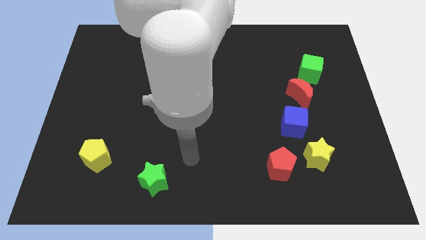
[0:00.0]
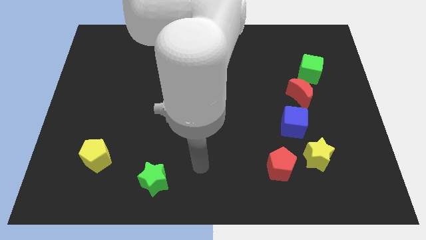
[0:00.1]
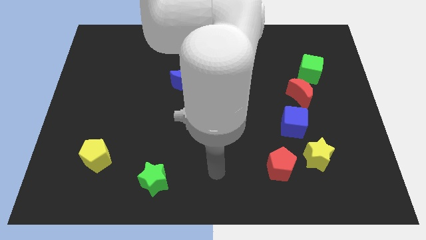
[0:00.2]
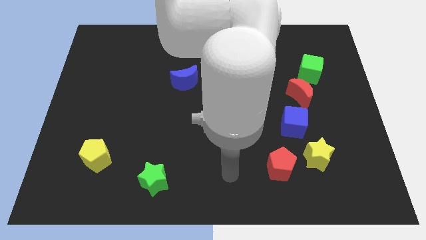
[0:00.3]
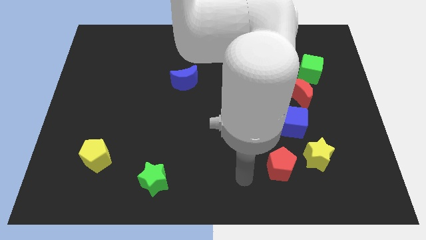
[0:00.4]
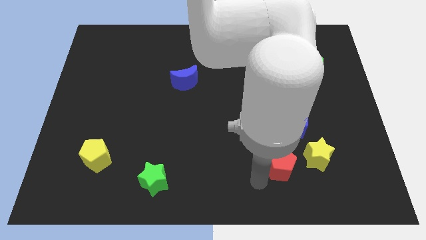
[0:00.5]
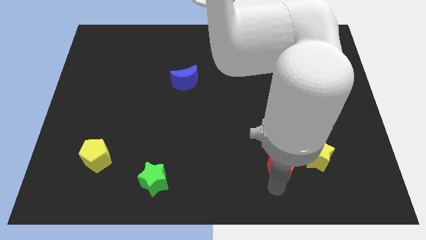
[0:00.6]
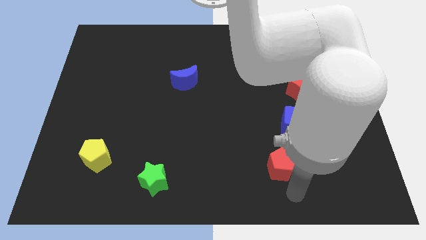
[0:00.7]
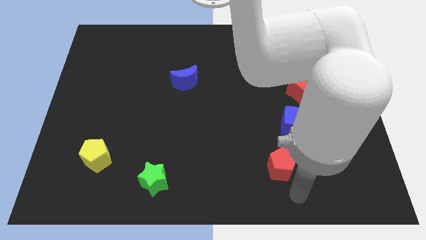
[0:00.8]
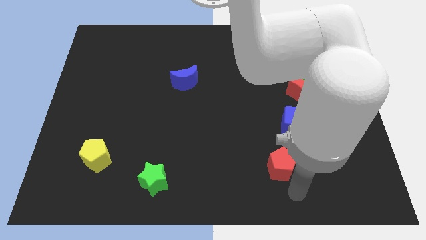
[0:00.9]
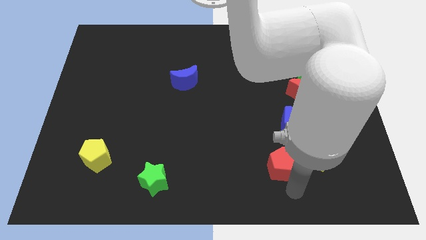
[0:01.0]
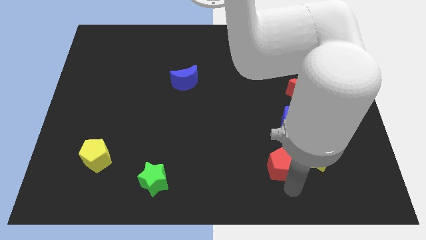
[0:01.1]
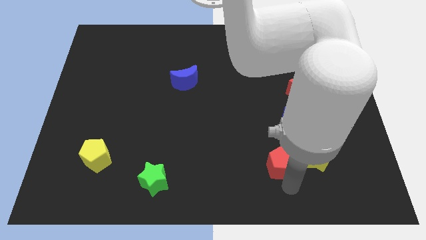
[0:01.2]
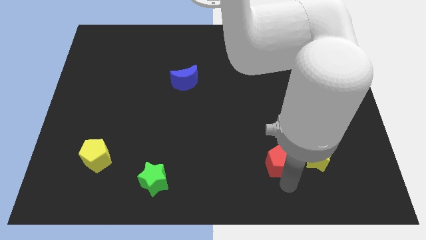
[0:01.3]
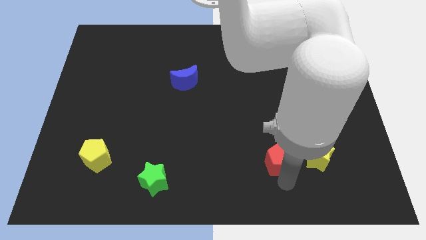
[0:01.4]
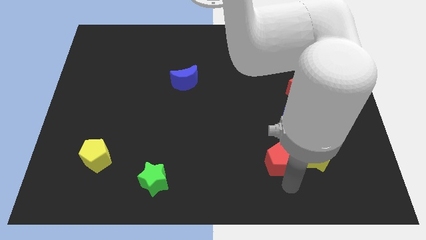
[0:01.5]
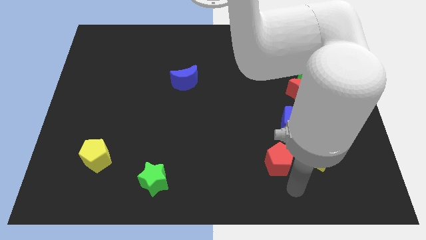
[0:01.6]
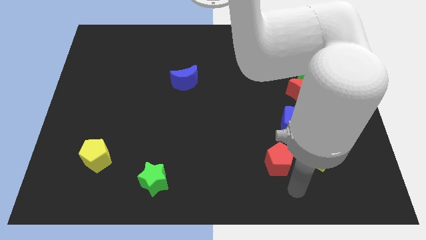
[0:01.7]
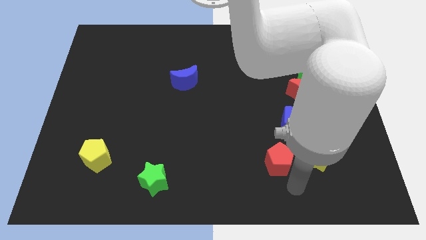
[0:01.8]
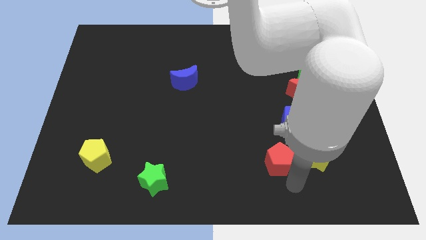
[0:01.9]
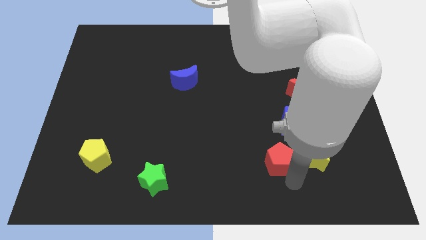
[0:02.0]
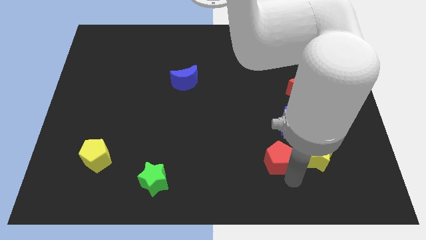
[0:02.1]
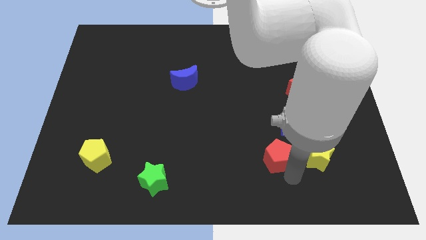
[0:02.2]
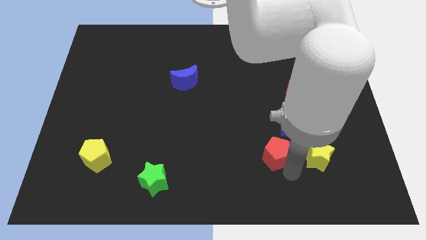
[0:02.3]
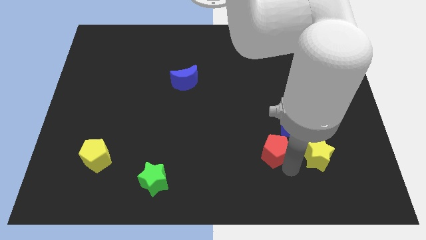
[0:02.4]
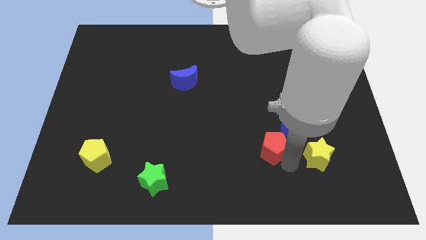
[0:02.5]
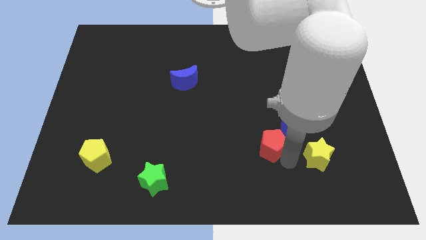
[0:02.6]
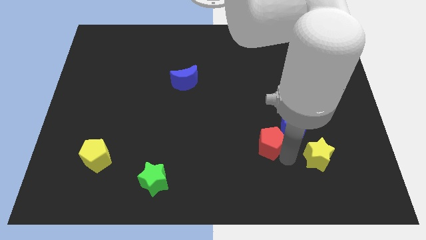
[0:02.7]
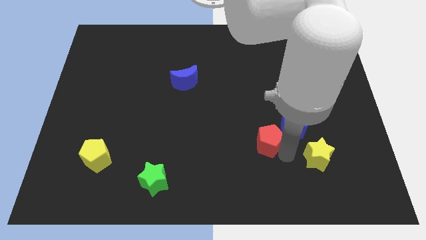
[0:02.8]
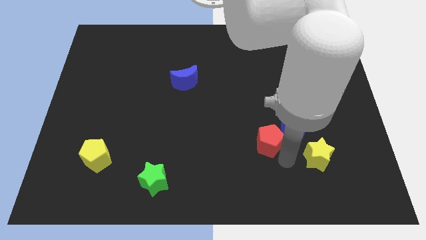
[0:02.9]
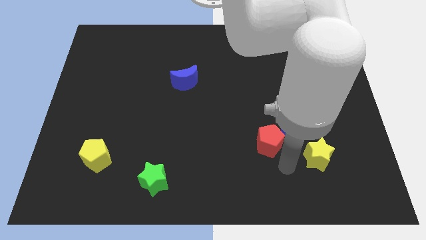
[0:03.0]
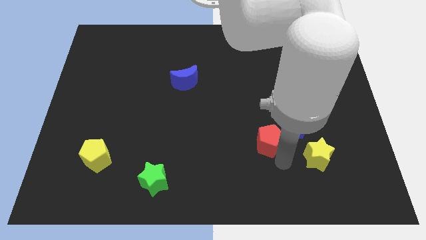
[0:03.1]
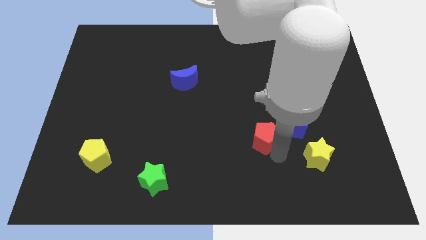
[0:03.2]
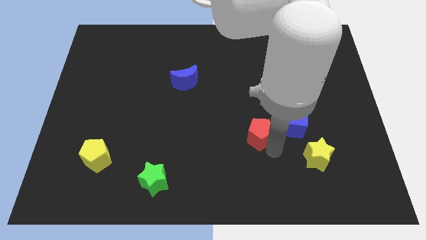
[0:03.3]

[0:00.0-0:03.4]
slightly slide the red pentagon up

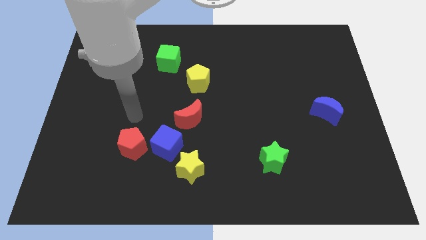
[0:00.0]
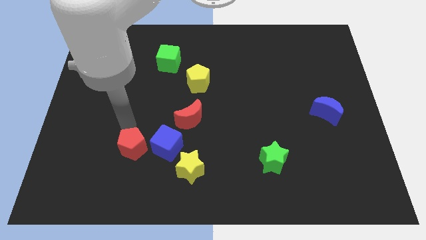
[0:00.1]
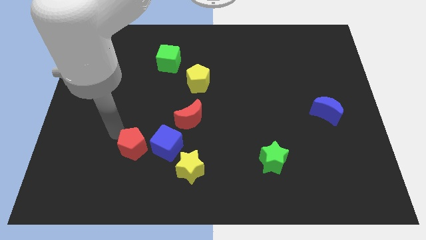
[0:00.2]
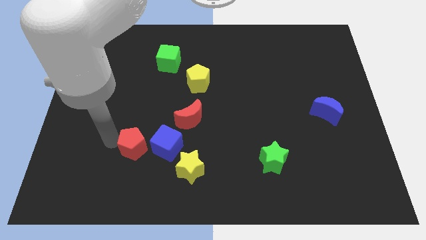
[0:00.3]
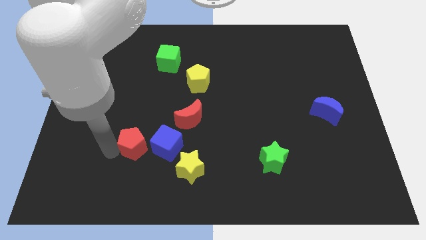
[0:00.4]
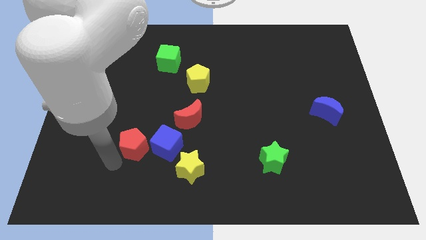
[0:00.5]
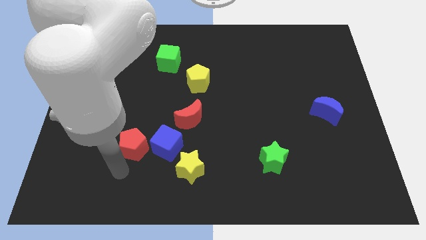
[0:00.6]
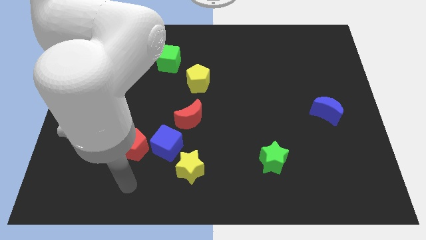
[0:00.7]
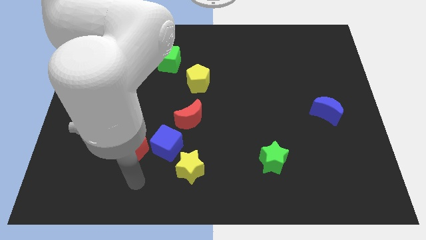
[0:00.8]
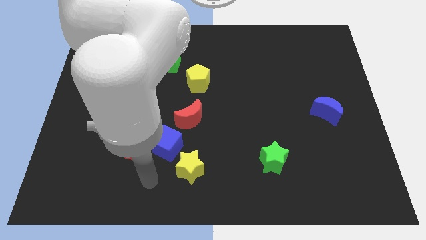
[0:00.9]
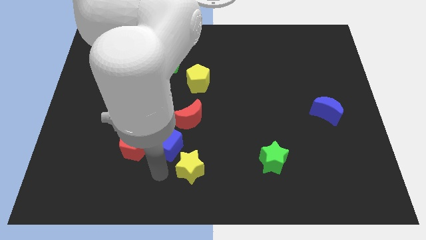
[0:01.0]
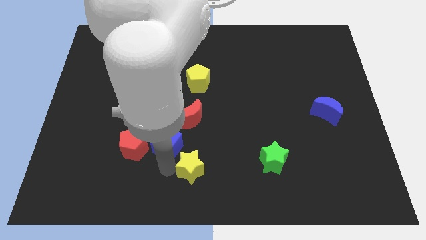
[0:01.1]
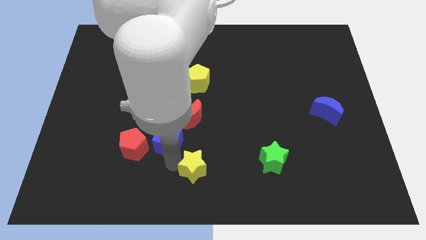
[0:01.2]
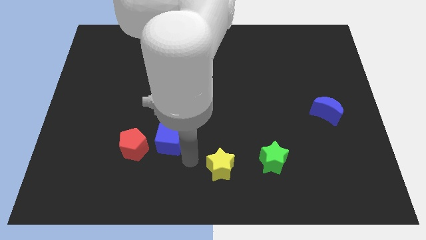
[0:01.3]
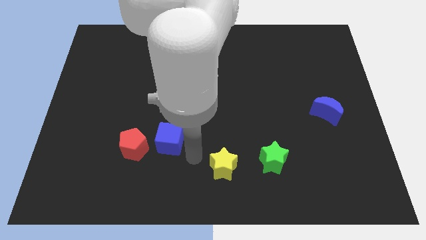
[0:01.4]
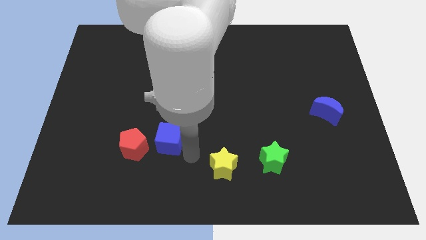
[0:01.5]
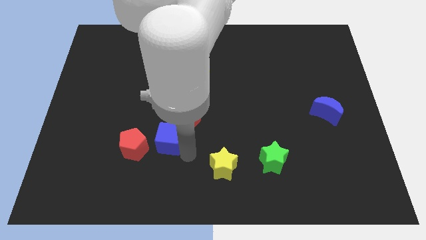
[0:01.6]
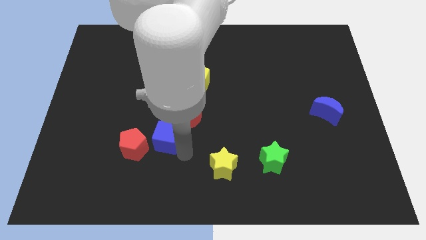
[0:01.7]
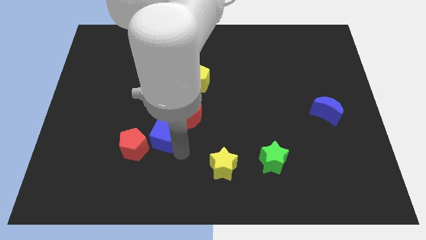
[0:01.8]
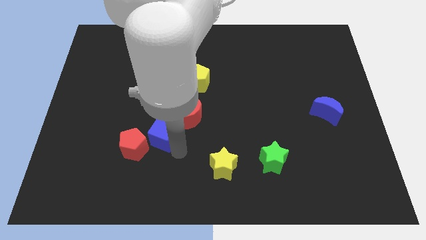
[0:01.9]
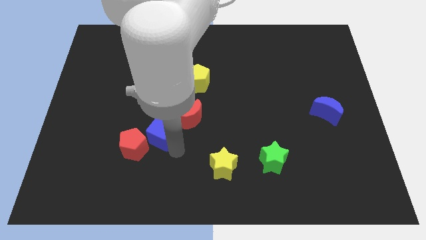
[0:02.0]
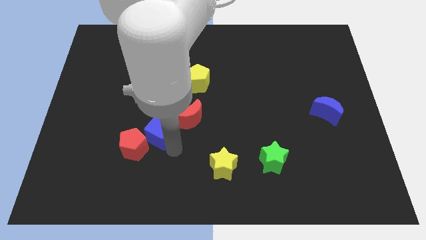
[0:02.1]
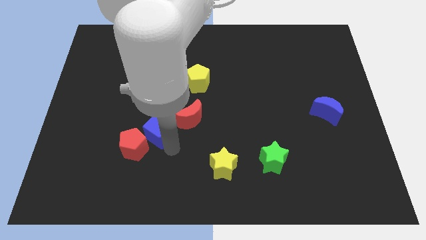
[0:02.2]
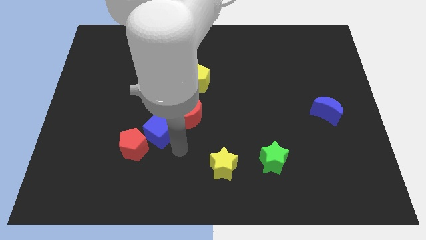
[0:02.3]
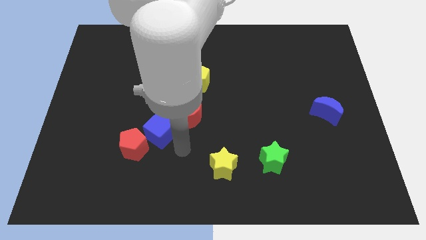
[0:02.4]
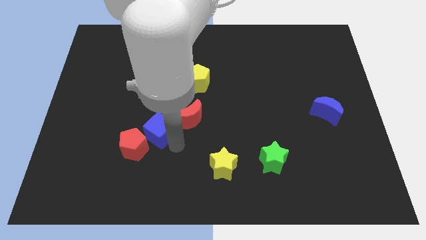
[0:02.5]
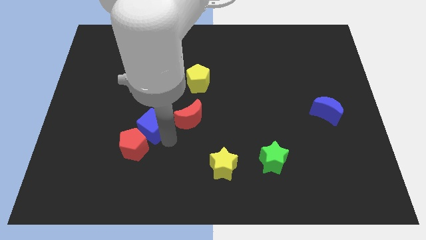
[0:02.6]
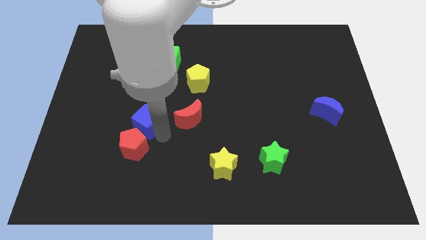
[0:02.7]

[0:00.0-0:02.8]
move the blue cube upwards and to the left slightly

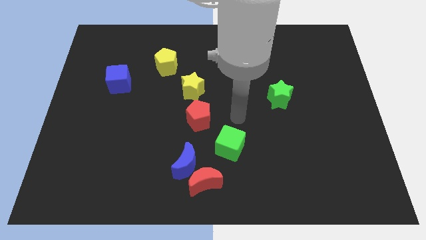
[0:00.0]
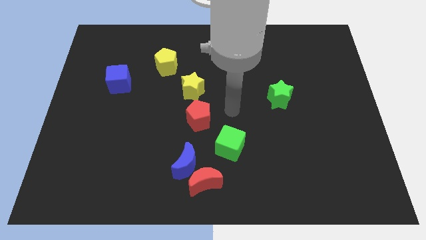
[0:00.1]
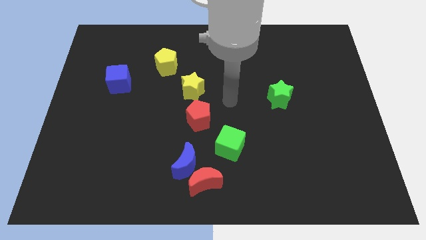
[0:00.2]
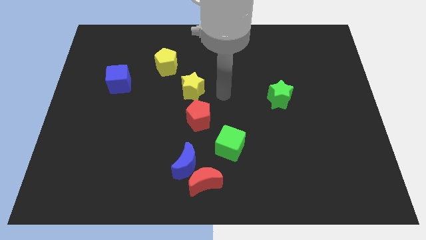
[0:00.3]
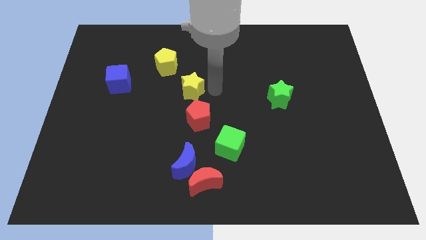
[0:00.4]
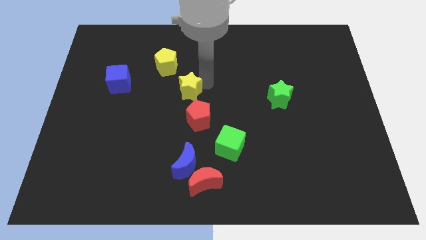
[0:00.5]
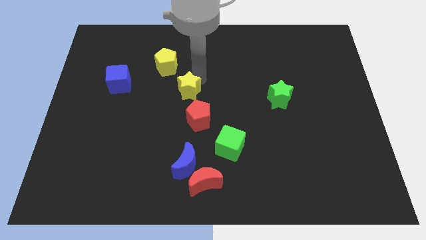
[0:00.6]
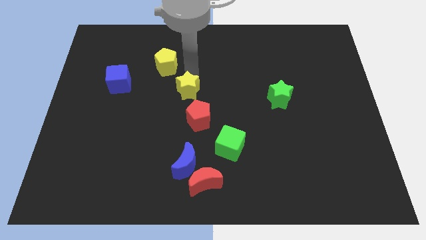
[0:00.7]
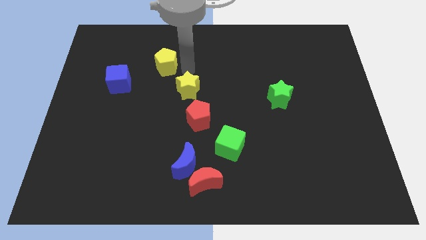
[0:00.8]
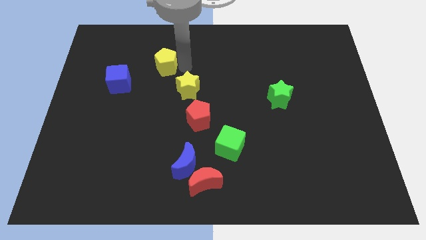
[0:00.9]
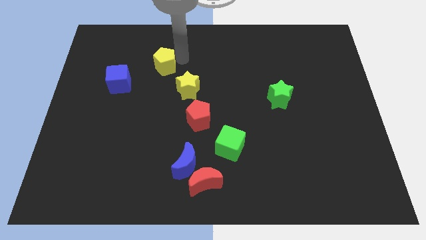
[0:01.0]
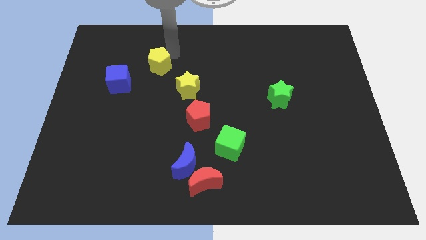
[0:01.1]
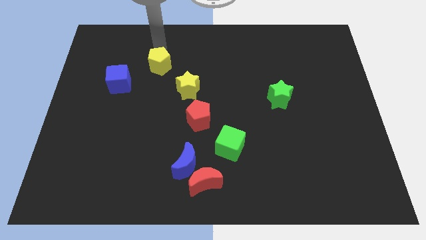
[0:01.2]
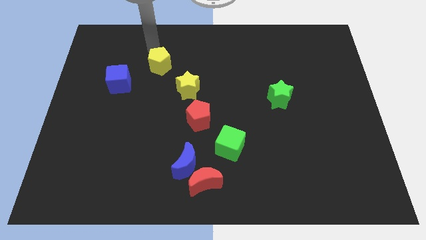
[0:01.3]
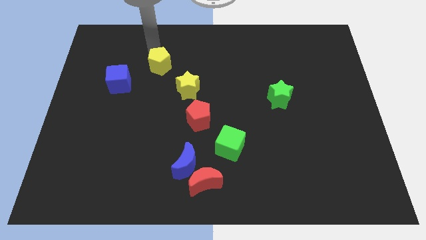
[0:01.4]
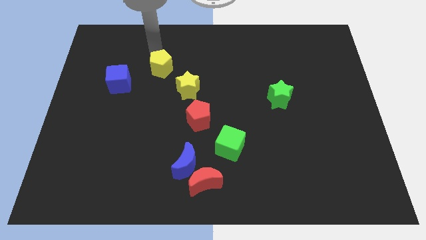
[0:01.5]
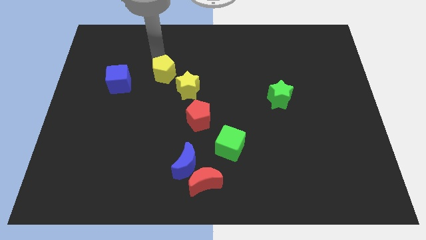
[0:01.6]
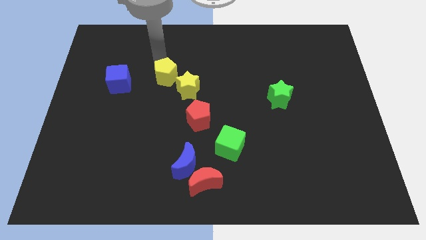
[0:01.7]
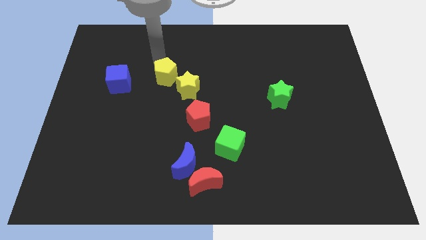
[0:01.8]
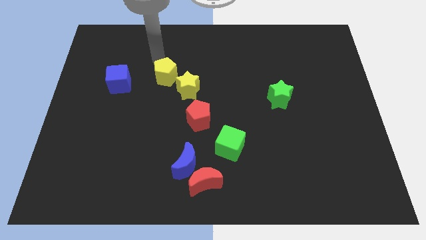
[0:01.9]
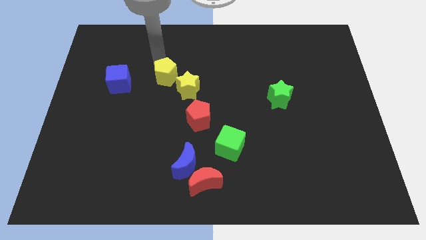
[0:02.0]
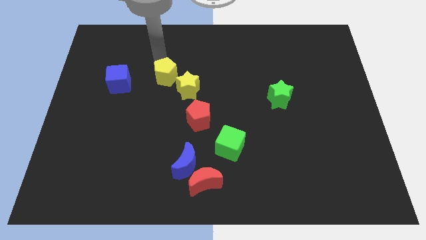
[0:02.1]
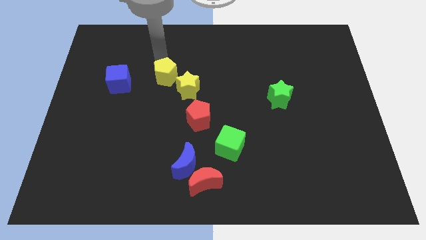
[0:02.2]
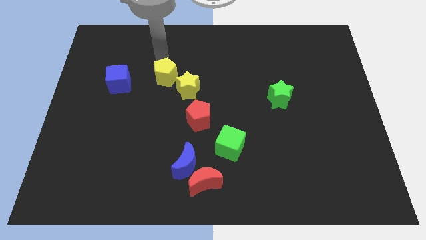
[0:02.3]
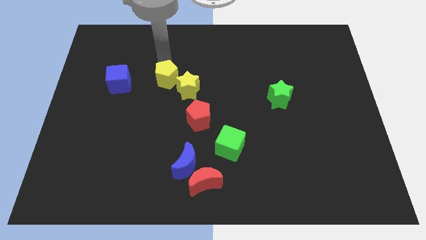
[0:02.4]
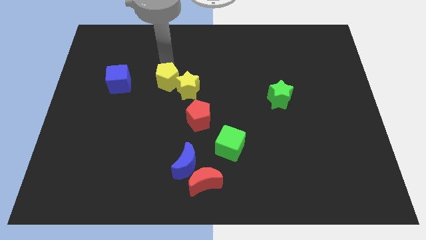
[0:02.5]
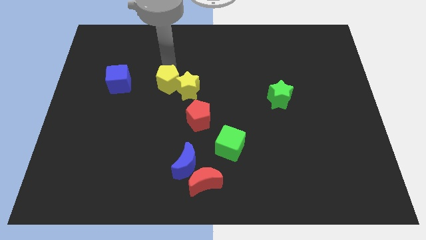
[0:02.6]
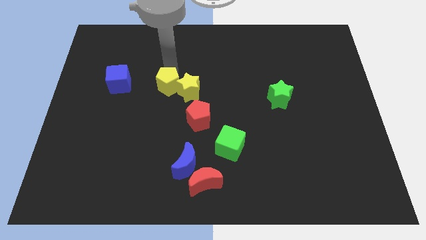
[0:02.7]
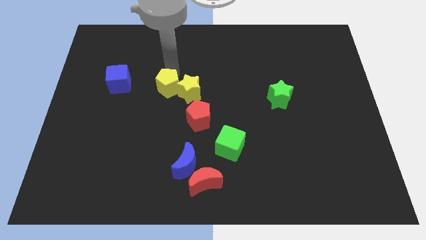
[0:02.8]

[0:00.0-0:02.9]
slightly slide the yellow pentagon down
